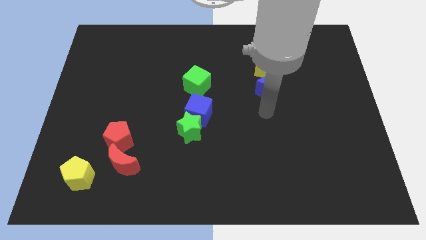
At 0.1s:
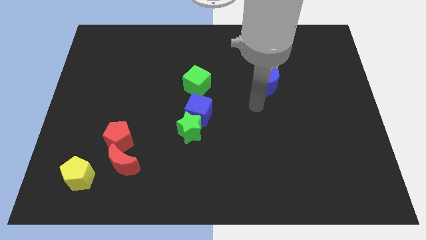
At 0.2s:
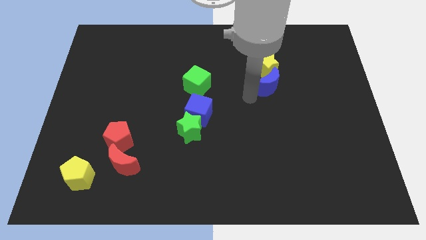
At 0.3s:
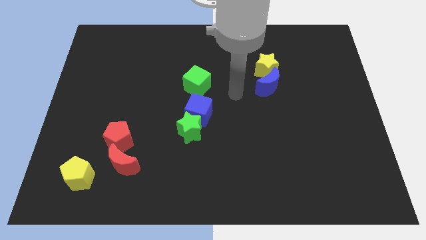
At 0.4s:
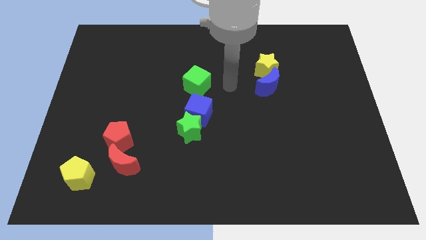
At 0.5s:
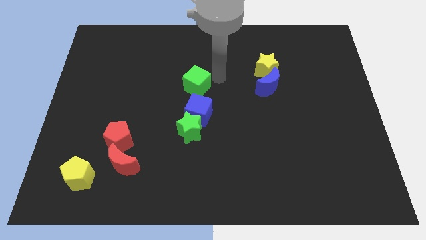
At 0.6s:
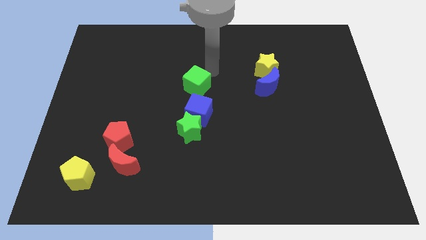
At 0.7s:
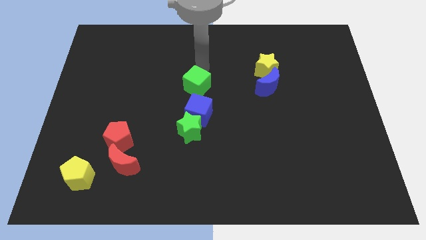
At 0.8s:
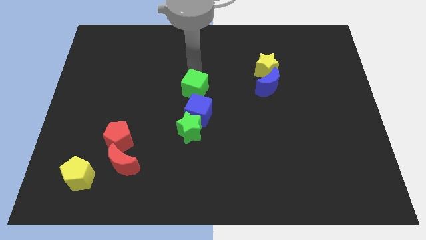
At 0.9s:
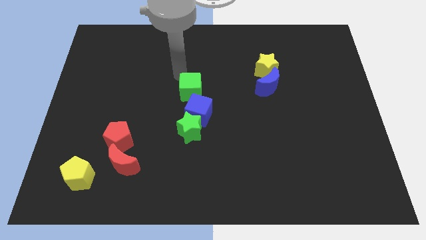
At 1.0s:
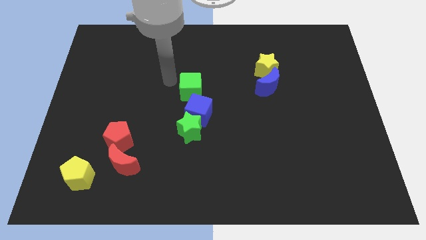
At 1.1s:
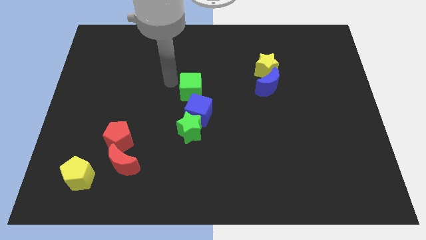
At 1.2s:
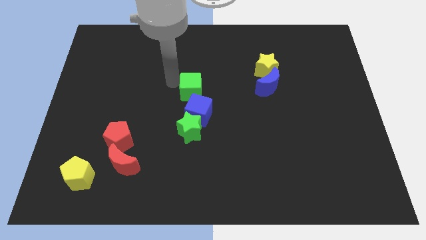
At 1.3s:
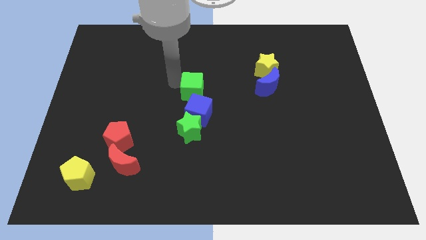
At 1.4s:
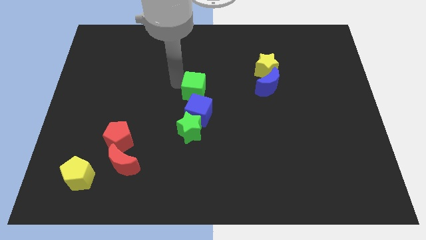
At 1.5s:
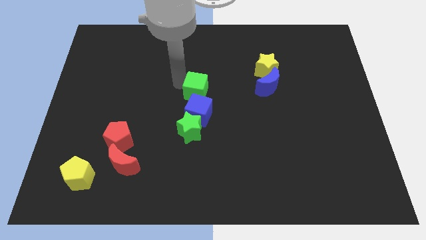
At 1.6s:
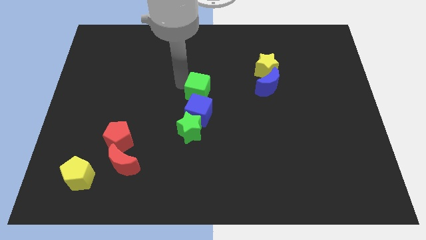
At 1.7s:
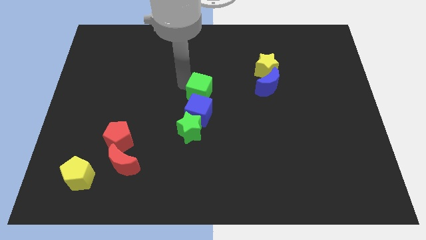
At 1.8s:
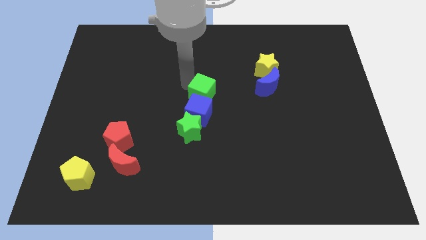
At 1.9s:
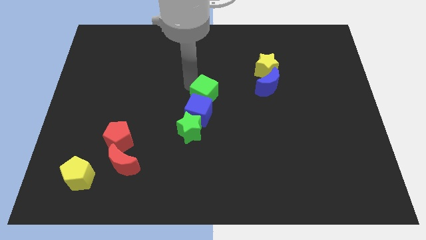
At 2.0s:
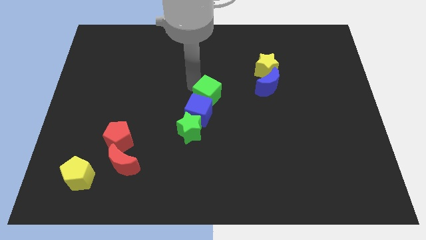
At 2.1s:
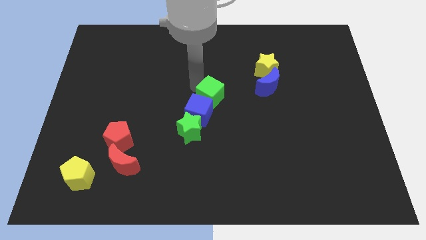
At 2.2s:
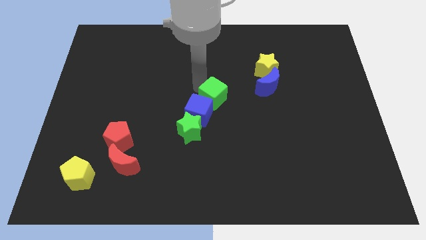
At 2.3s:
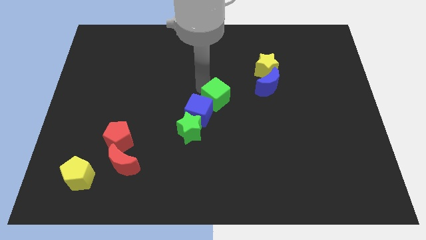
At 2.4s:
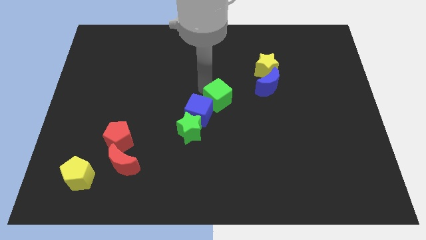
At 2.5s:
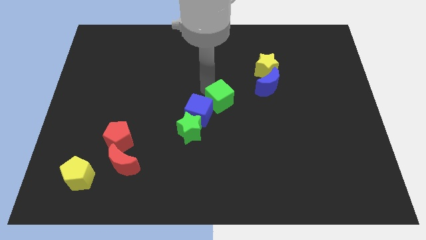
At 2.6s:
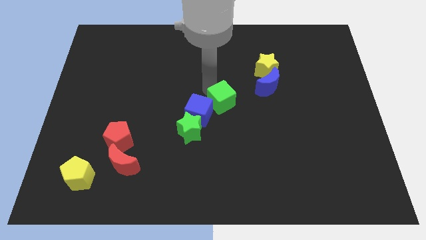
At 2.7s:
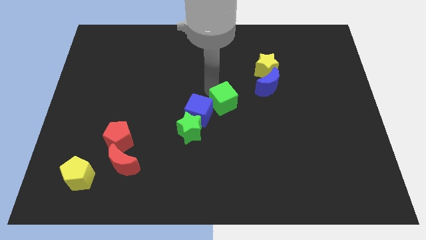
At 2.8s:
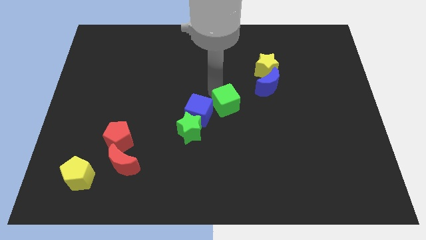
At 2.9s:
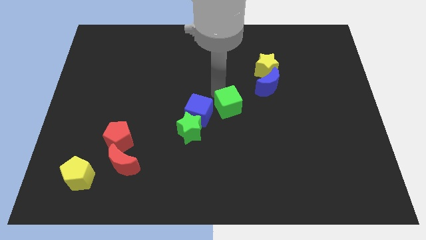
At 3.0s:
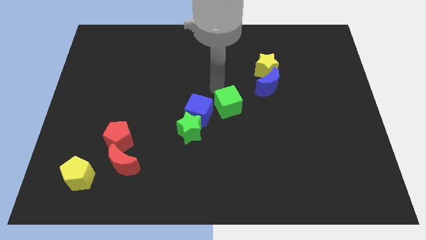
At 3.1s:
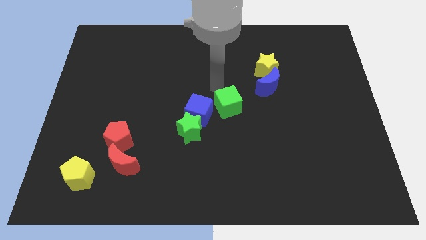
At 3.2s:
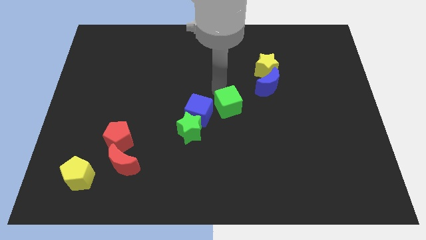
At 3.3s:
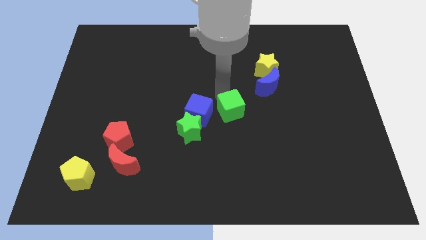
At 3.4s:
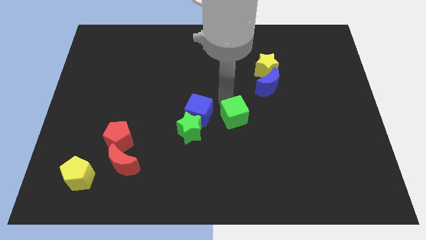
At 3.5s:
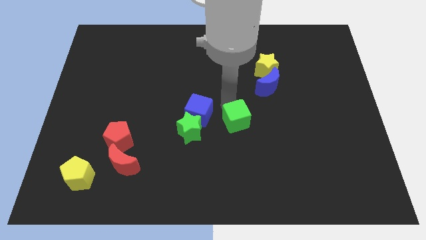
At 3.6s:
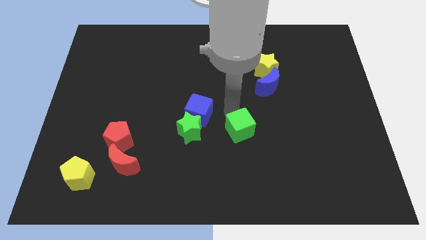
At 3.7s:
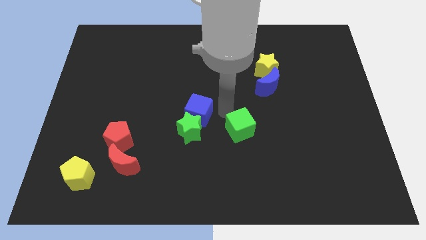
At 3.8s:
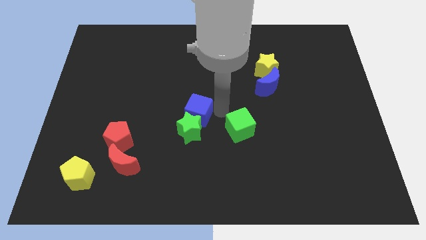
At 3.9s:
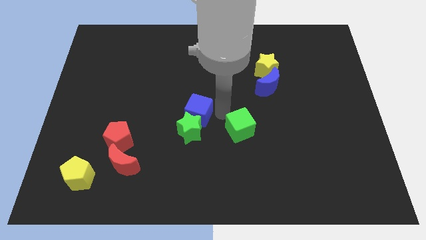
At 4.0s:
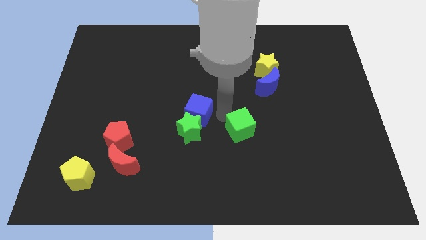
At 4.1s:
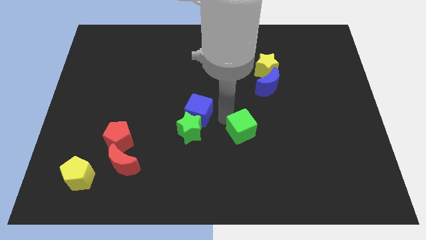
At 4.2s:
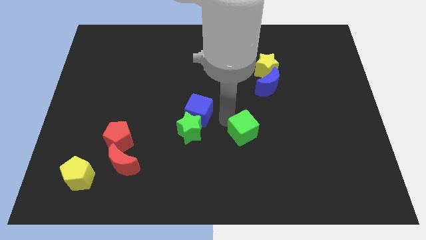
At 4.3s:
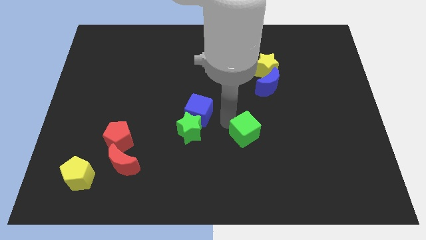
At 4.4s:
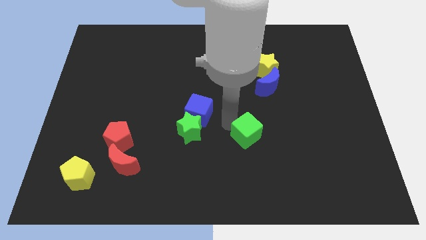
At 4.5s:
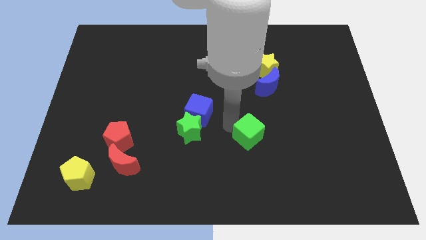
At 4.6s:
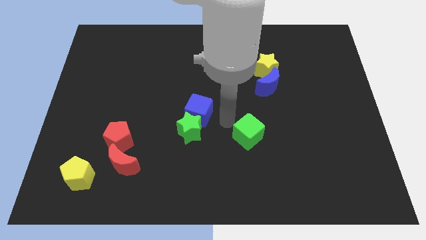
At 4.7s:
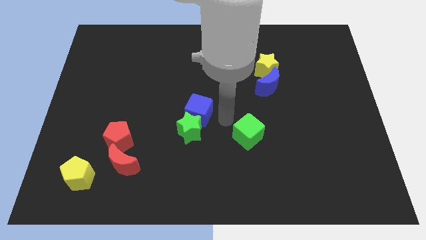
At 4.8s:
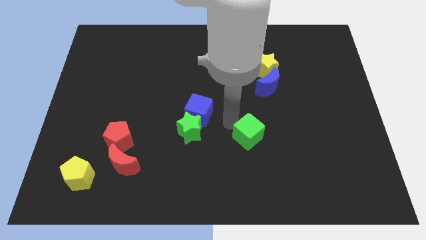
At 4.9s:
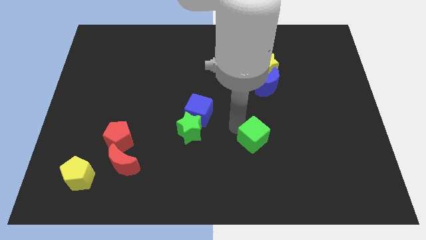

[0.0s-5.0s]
slide the green cube downwards and to the right diagonally

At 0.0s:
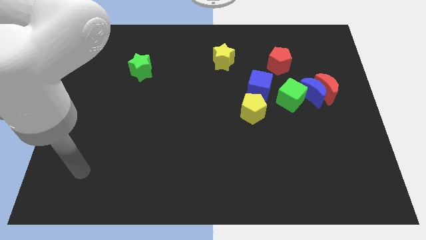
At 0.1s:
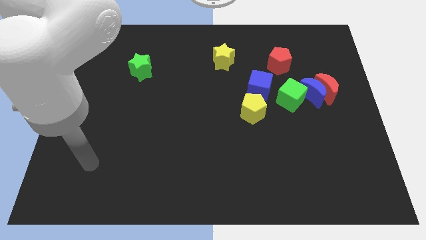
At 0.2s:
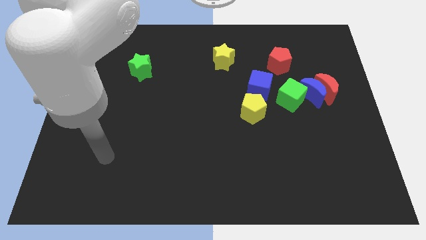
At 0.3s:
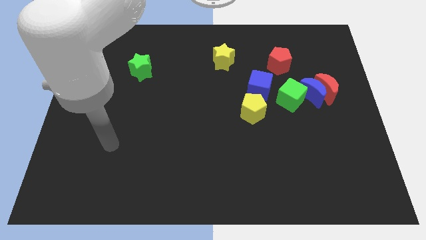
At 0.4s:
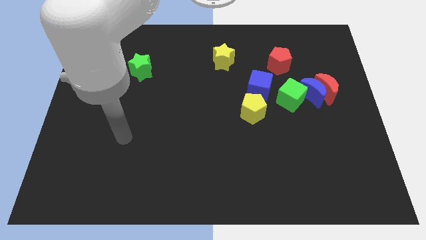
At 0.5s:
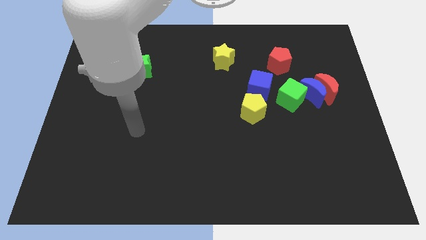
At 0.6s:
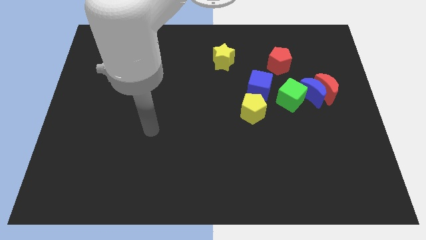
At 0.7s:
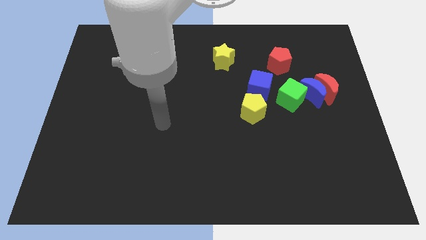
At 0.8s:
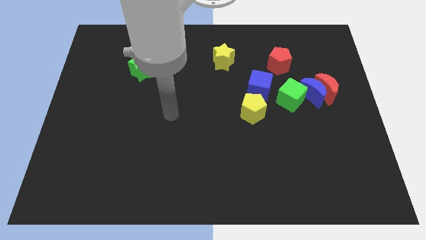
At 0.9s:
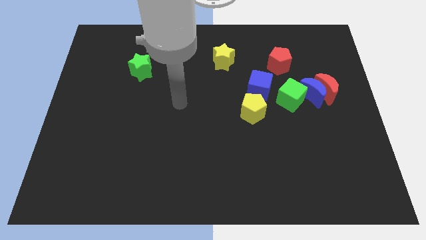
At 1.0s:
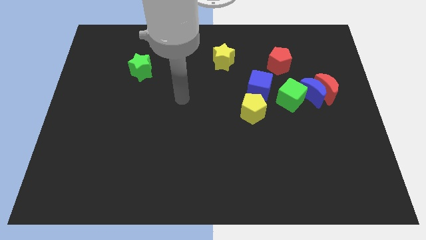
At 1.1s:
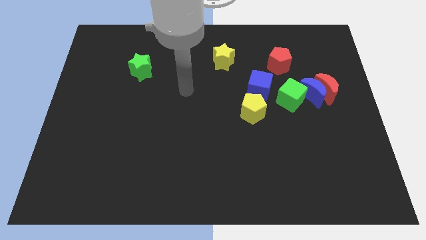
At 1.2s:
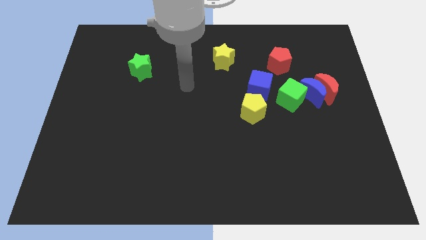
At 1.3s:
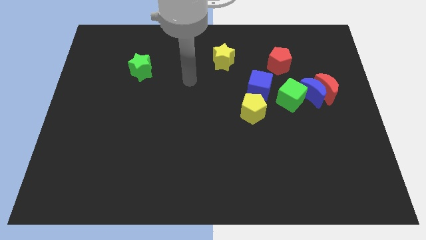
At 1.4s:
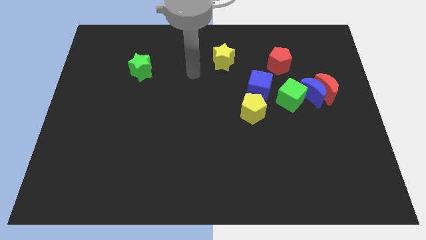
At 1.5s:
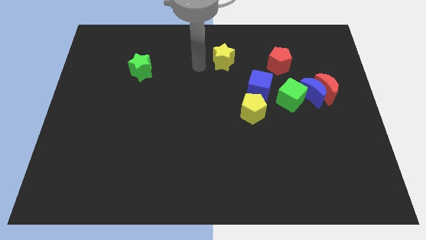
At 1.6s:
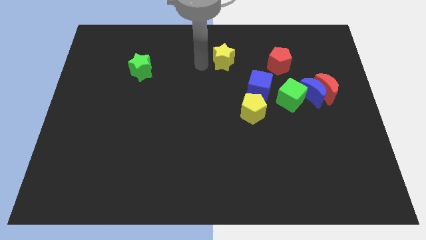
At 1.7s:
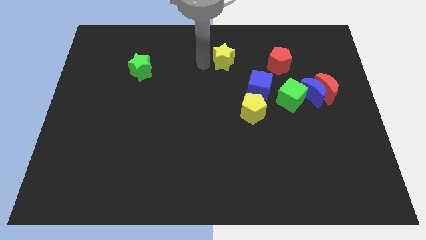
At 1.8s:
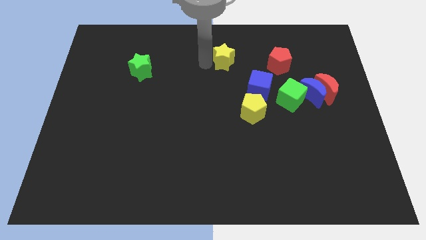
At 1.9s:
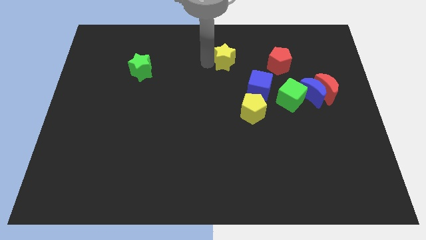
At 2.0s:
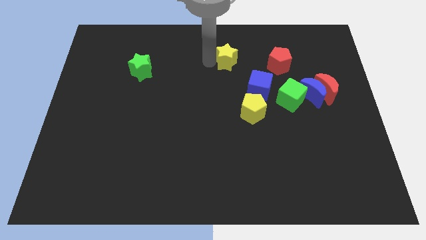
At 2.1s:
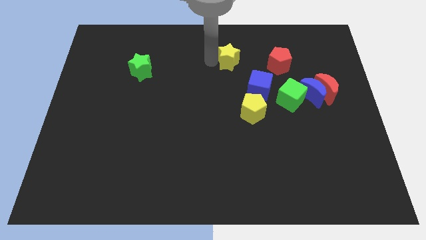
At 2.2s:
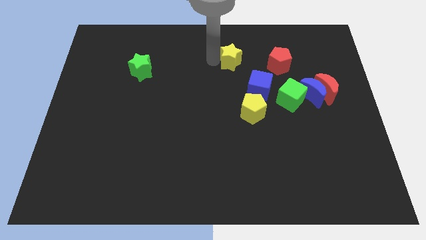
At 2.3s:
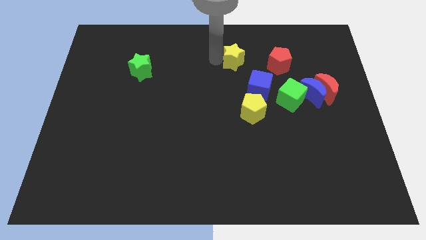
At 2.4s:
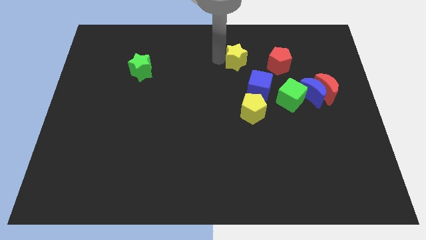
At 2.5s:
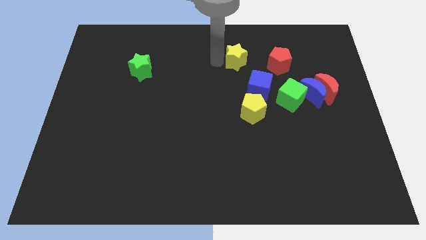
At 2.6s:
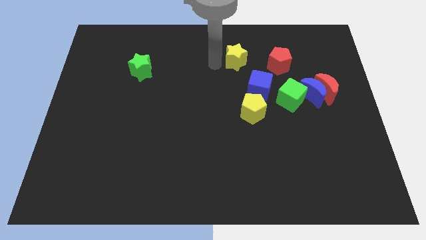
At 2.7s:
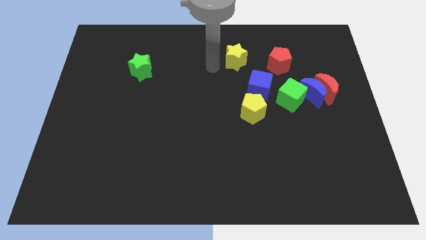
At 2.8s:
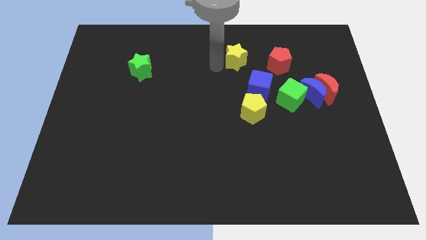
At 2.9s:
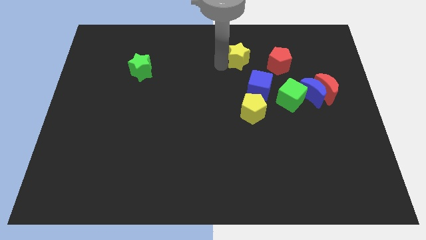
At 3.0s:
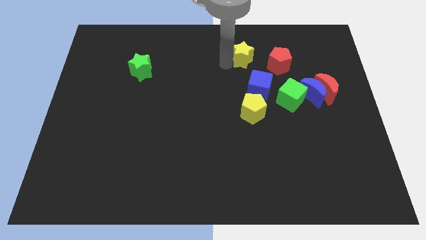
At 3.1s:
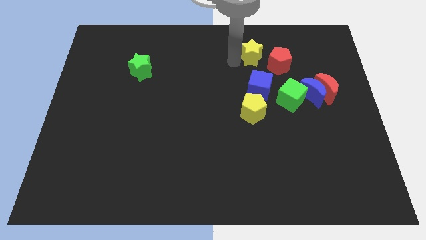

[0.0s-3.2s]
slightly slide the yellow star to the right
